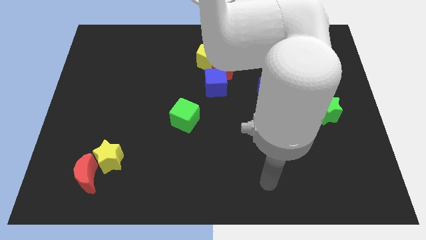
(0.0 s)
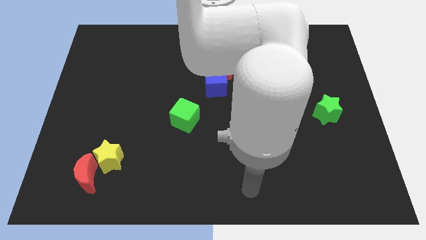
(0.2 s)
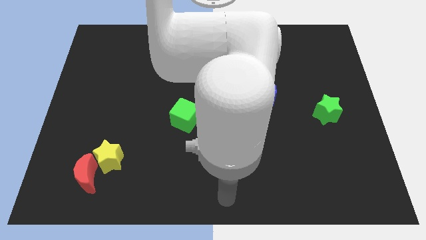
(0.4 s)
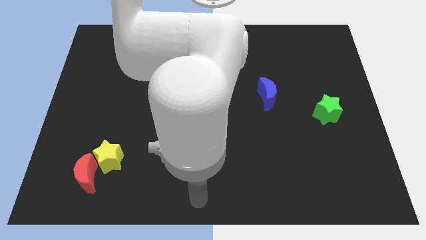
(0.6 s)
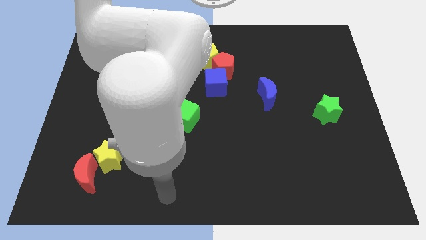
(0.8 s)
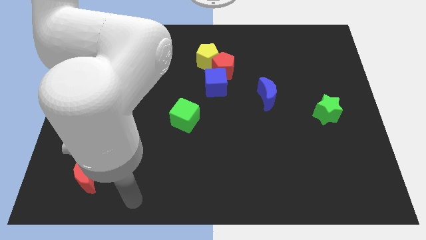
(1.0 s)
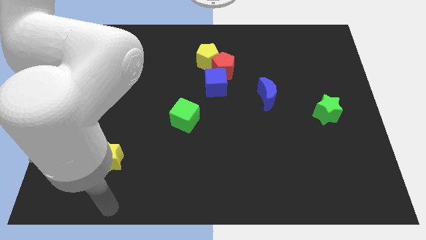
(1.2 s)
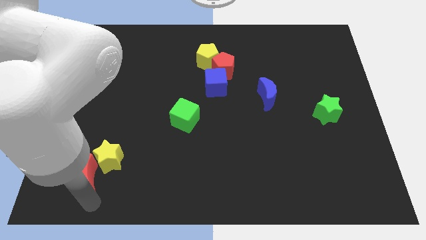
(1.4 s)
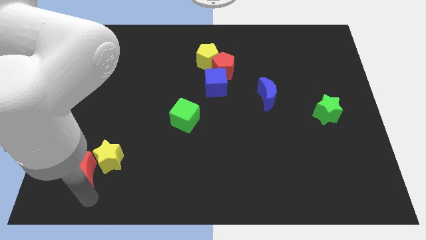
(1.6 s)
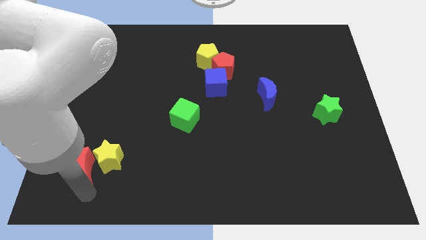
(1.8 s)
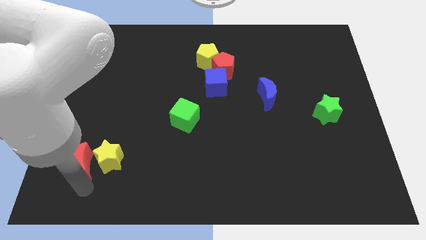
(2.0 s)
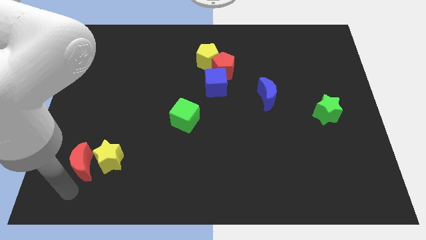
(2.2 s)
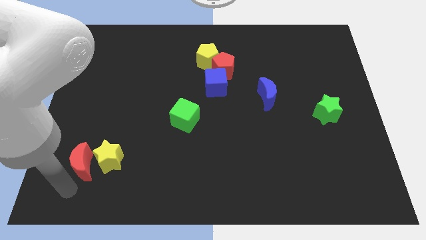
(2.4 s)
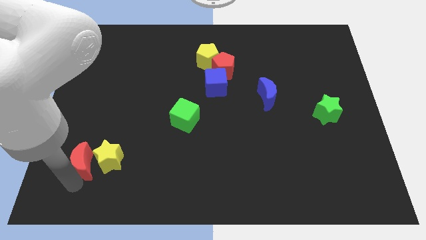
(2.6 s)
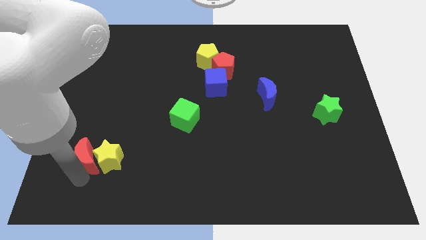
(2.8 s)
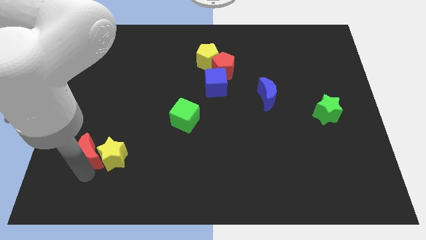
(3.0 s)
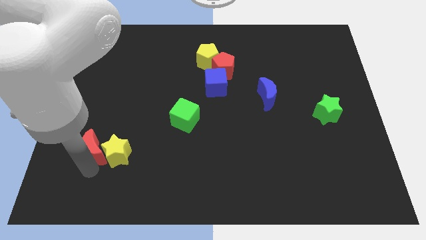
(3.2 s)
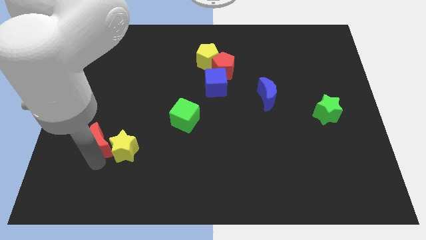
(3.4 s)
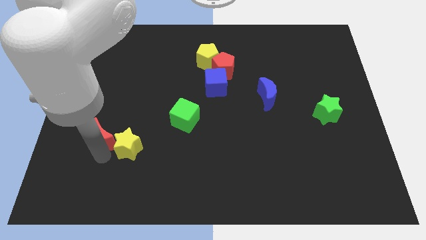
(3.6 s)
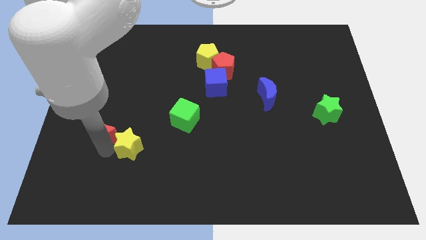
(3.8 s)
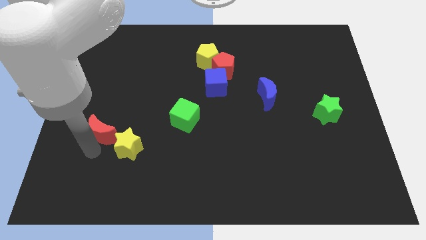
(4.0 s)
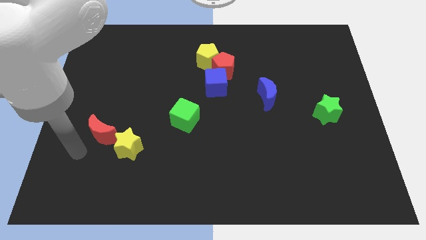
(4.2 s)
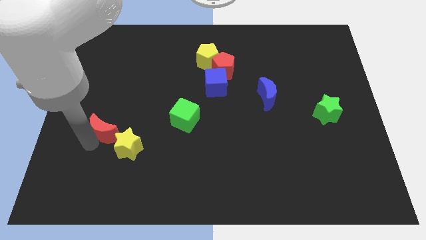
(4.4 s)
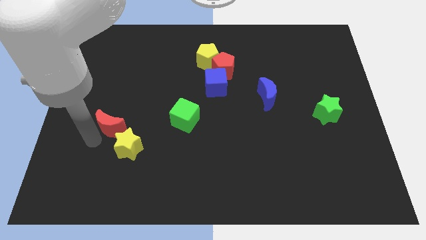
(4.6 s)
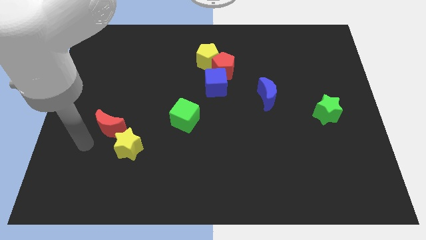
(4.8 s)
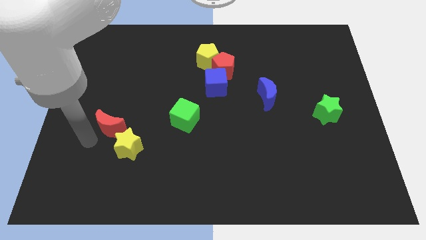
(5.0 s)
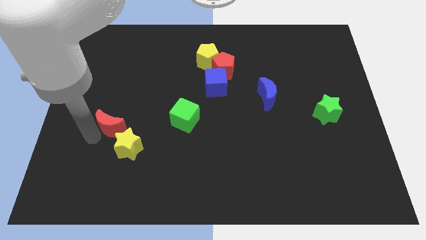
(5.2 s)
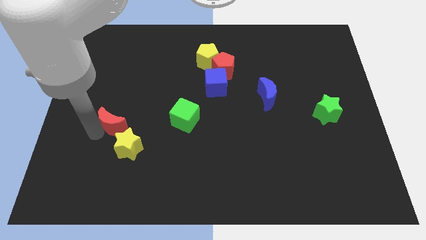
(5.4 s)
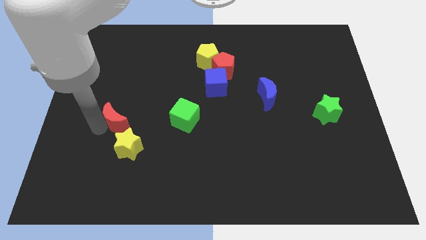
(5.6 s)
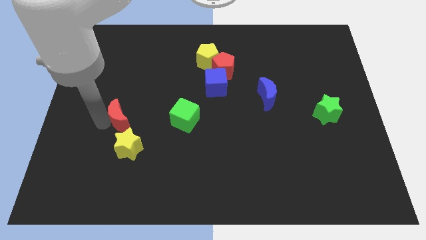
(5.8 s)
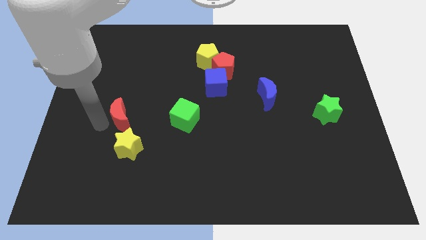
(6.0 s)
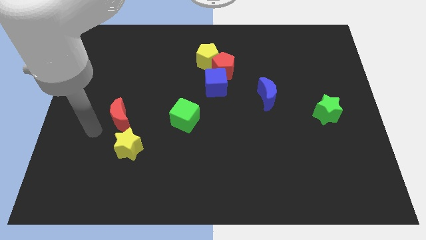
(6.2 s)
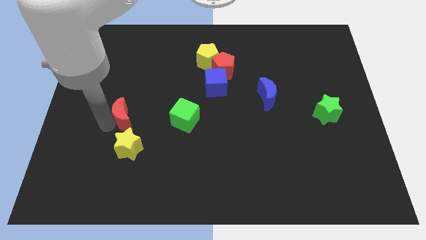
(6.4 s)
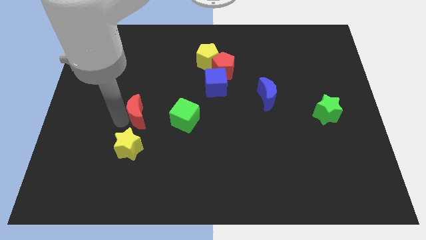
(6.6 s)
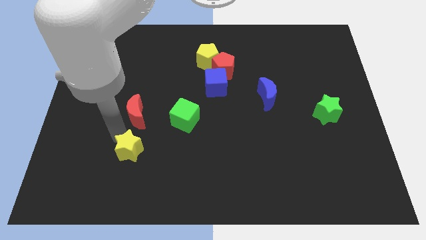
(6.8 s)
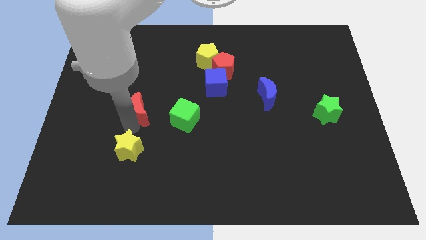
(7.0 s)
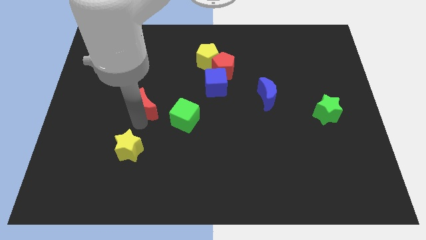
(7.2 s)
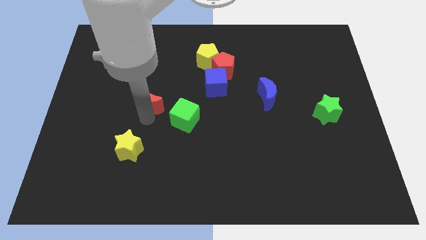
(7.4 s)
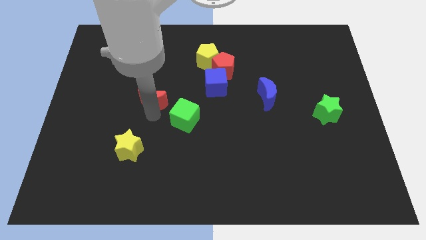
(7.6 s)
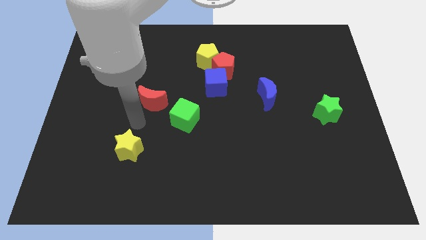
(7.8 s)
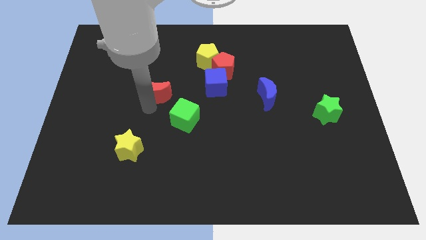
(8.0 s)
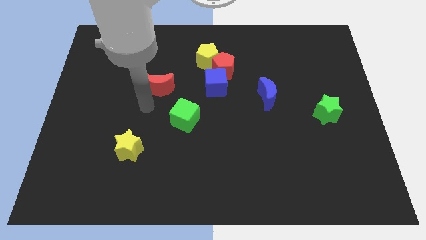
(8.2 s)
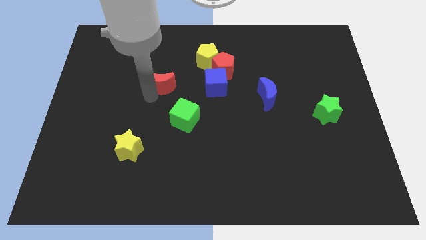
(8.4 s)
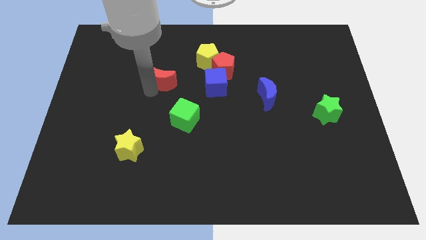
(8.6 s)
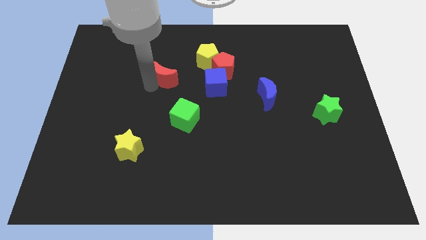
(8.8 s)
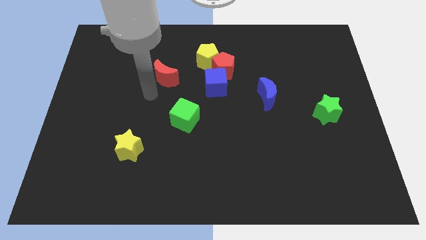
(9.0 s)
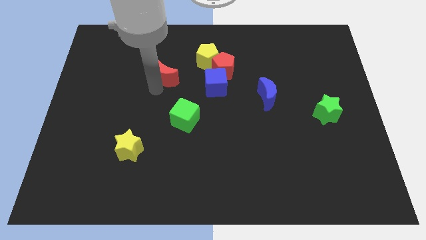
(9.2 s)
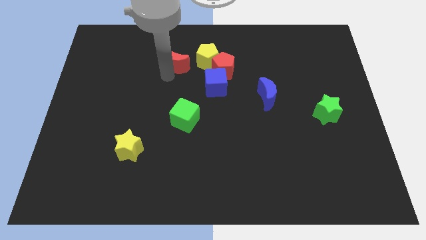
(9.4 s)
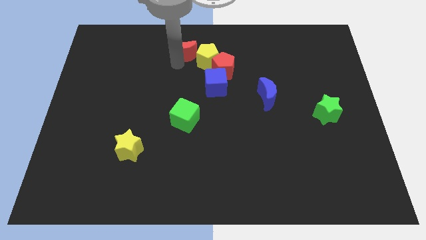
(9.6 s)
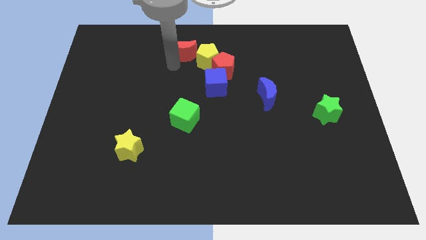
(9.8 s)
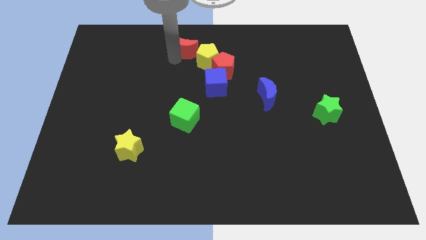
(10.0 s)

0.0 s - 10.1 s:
push the red moon to the top side
